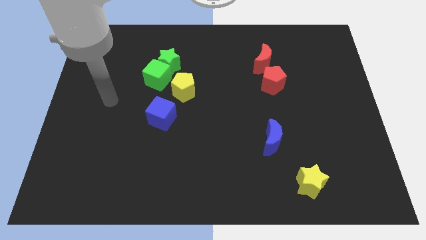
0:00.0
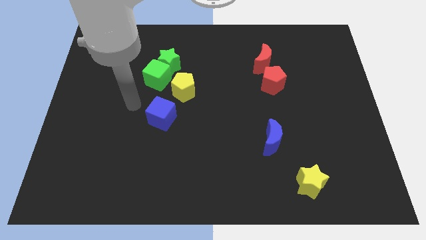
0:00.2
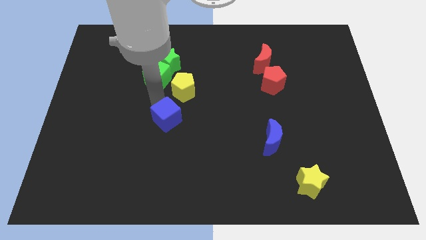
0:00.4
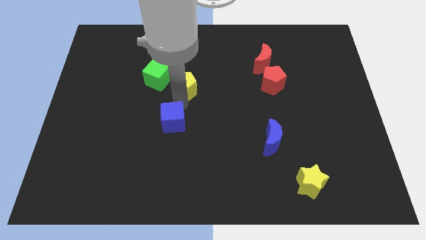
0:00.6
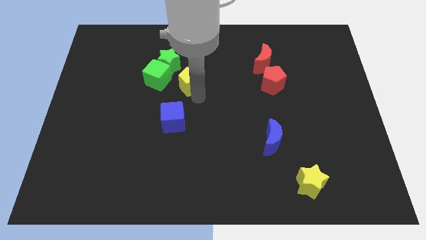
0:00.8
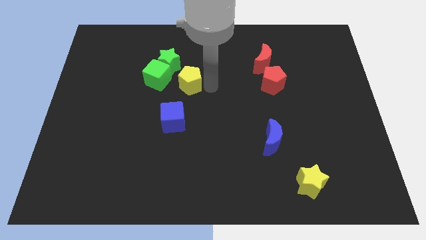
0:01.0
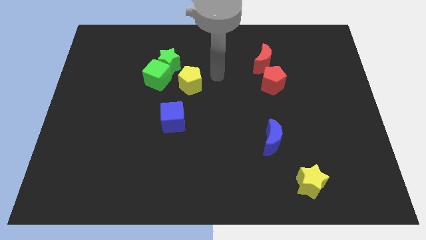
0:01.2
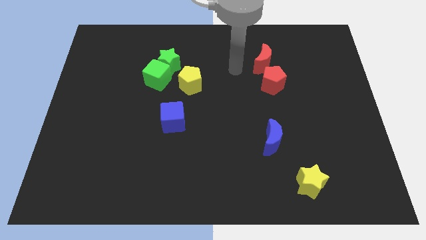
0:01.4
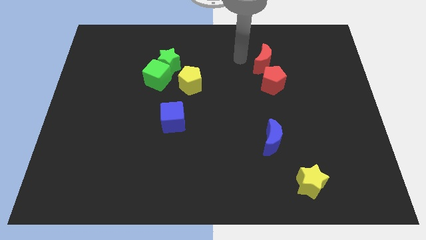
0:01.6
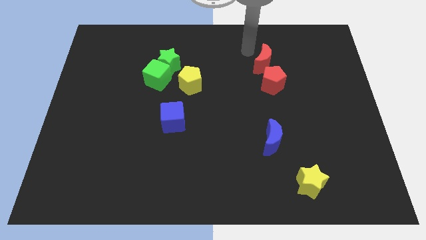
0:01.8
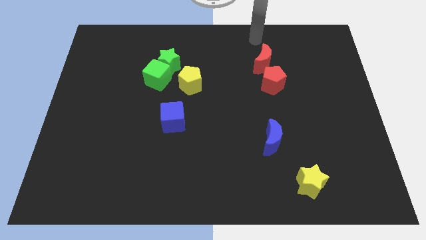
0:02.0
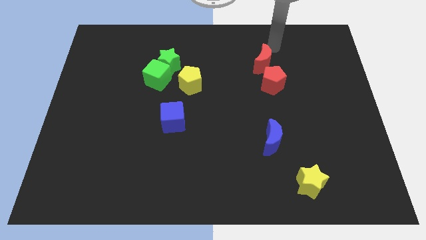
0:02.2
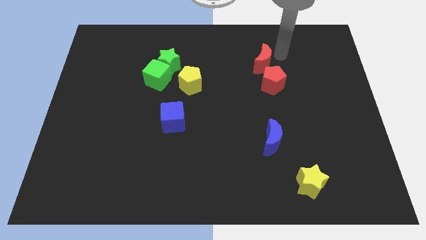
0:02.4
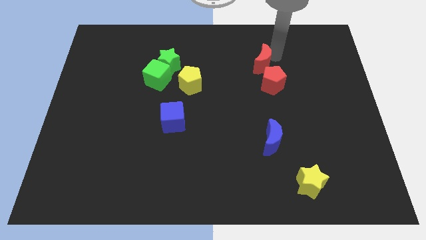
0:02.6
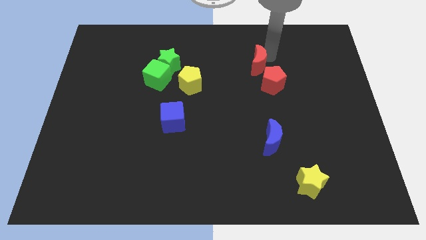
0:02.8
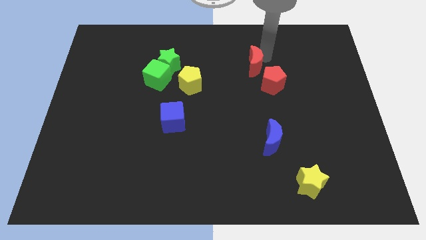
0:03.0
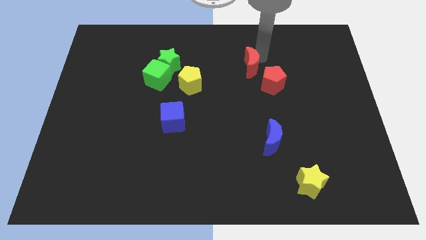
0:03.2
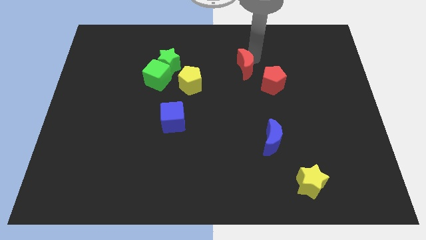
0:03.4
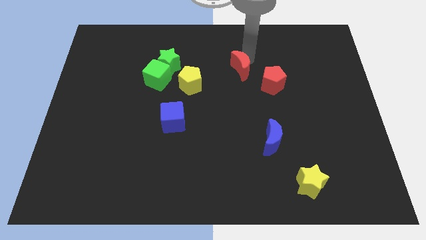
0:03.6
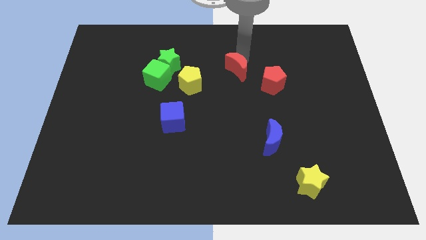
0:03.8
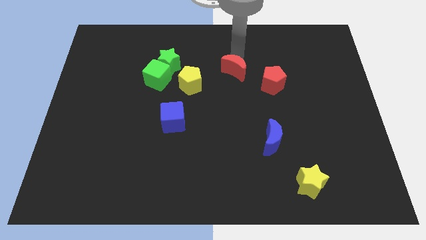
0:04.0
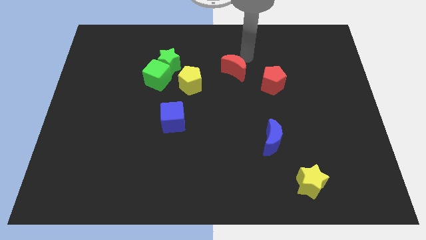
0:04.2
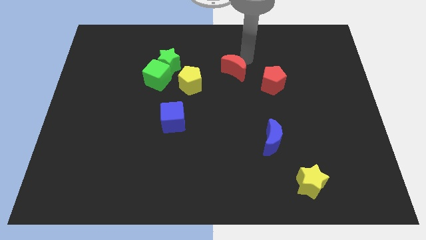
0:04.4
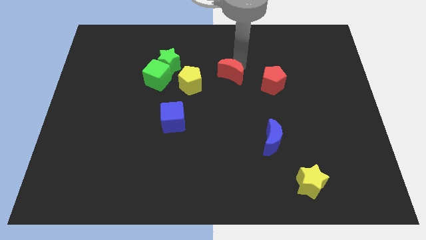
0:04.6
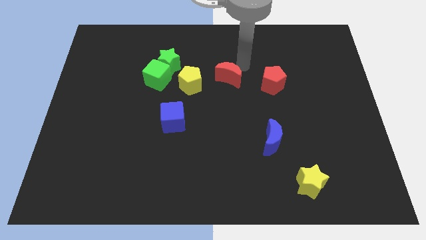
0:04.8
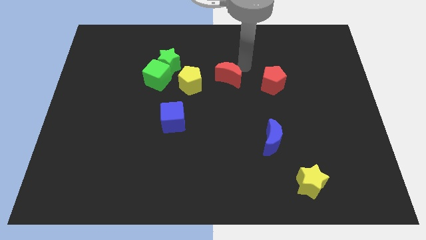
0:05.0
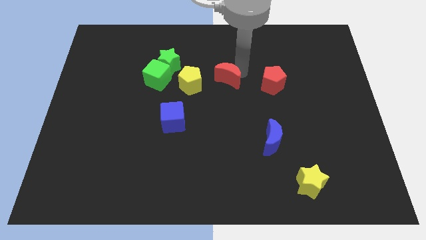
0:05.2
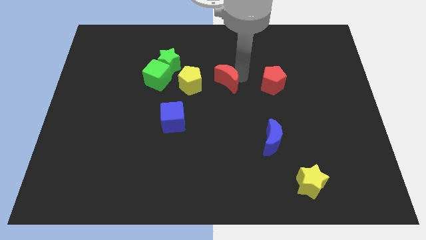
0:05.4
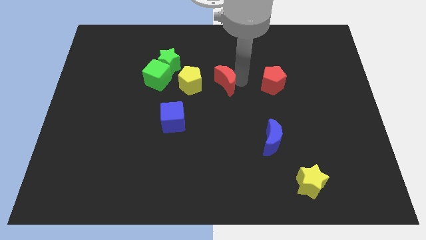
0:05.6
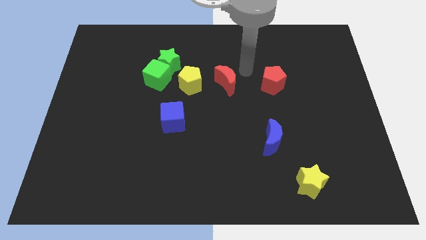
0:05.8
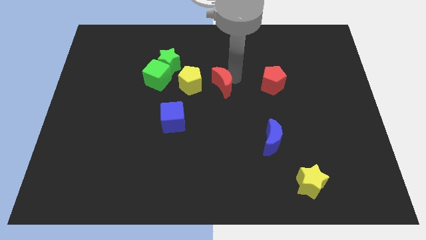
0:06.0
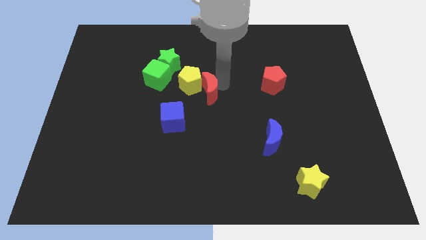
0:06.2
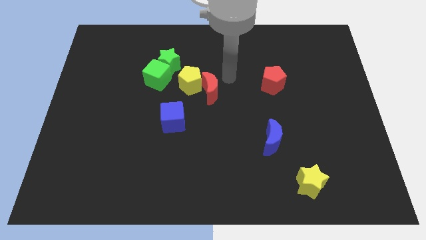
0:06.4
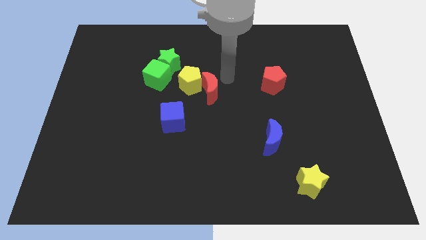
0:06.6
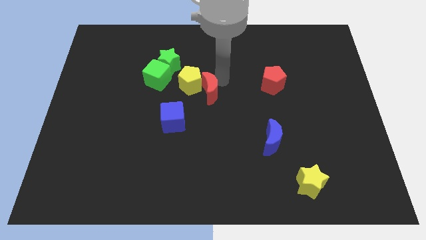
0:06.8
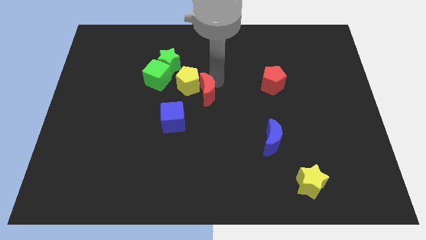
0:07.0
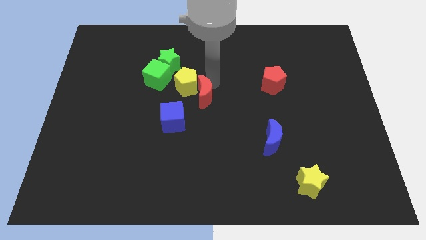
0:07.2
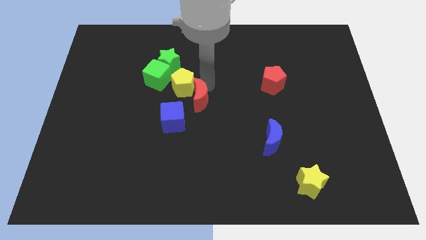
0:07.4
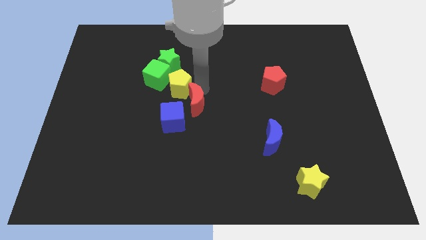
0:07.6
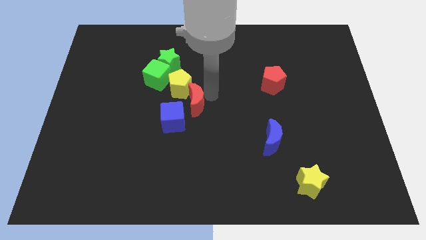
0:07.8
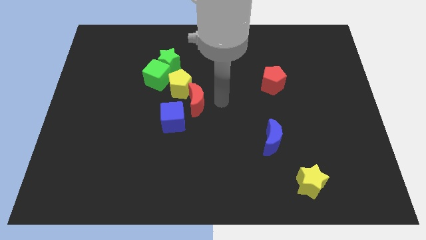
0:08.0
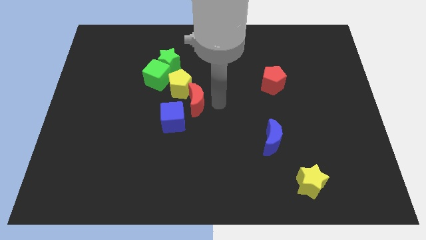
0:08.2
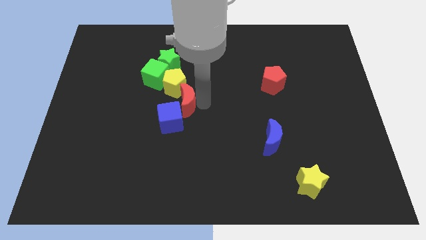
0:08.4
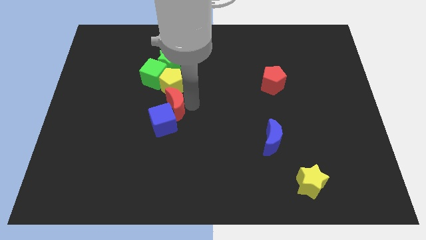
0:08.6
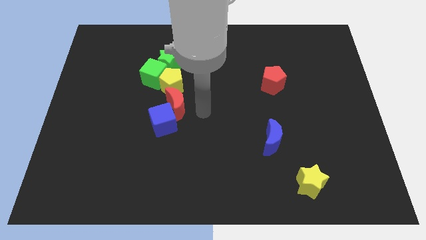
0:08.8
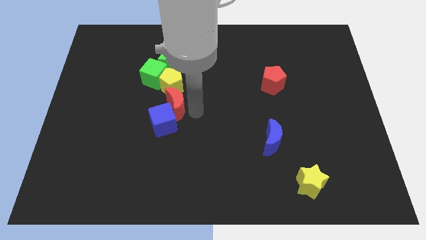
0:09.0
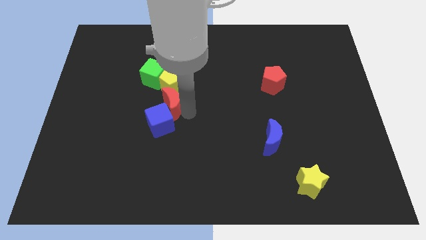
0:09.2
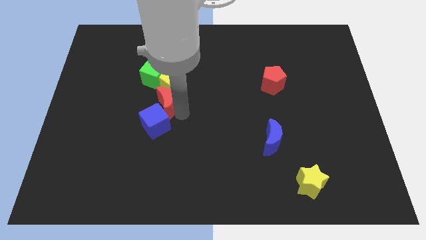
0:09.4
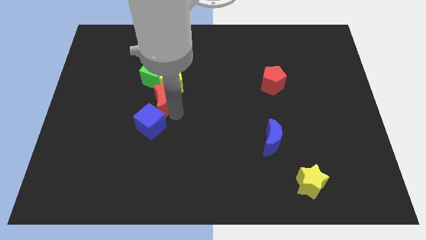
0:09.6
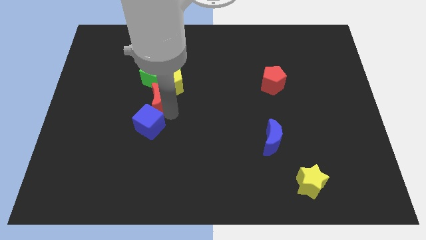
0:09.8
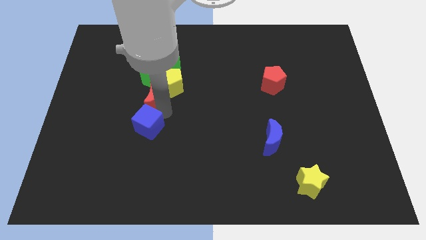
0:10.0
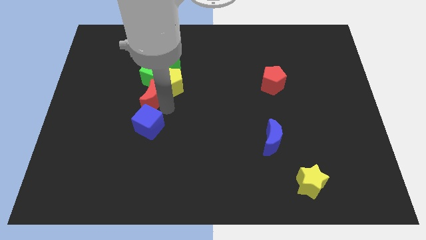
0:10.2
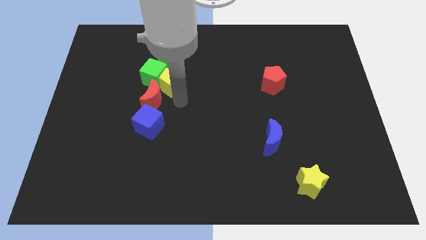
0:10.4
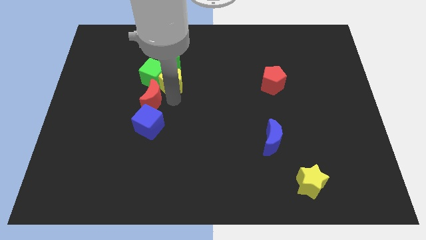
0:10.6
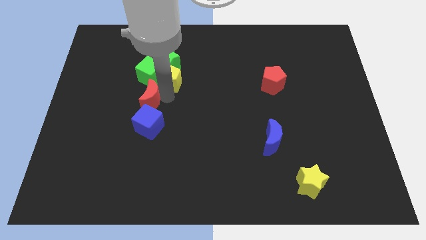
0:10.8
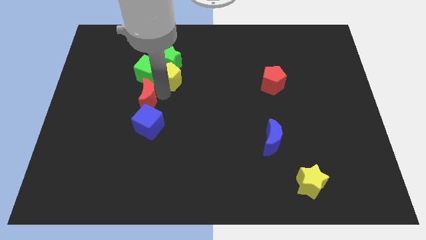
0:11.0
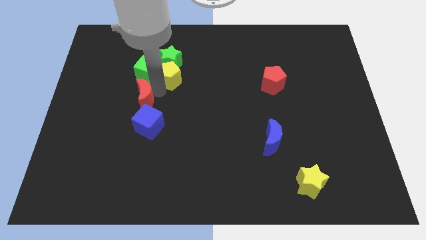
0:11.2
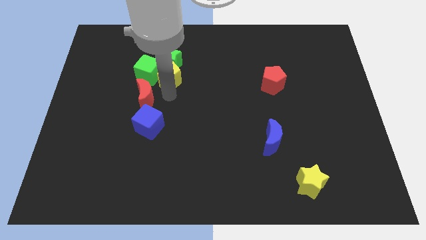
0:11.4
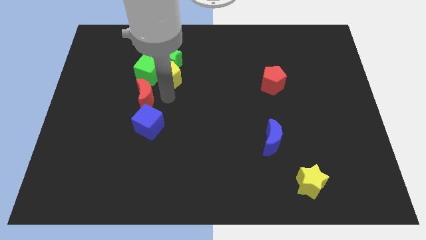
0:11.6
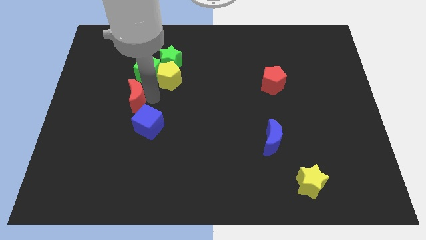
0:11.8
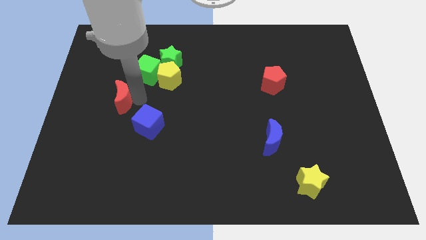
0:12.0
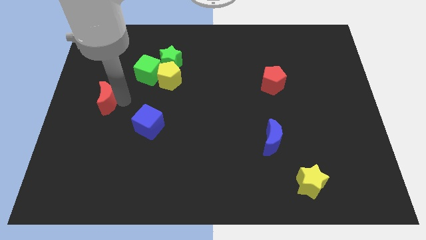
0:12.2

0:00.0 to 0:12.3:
put the red moon to the left side of the board
